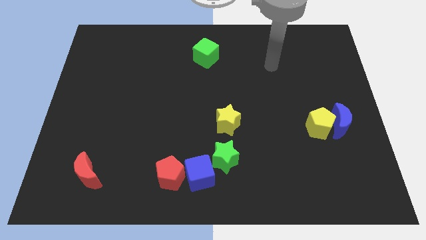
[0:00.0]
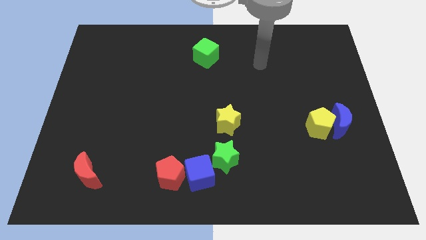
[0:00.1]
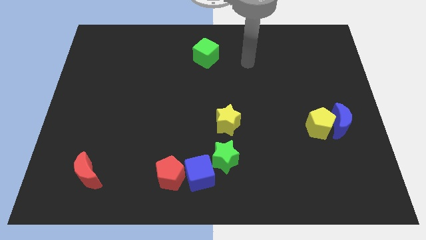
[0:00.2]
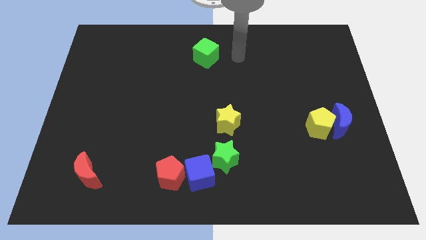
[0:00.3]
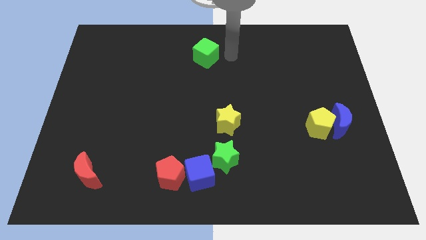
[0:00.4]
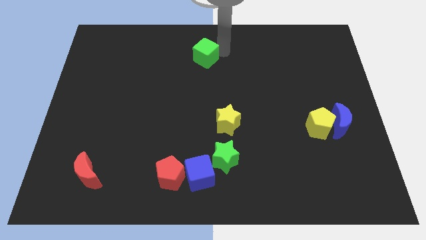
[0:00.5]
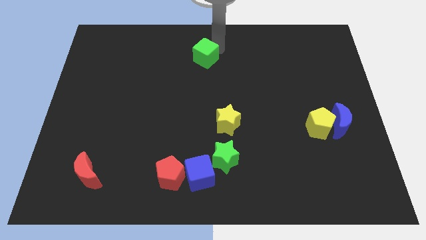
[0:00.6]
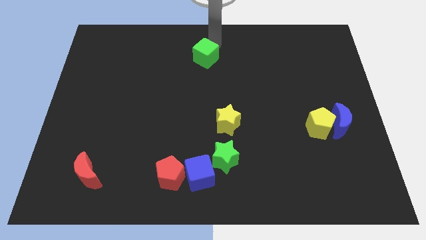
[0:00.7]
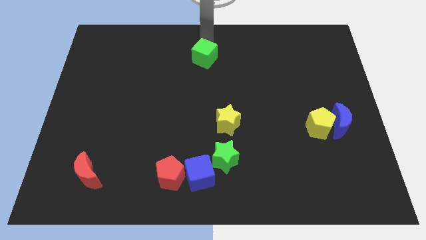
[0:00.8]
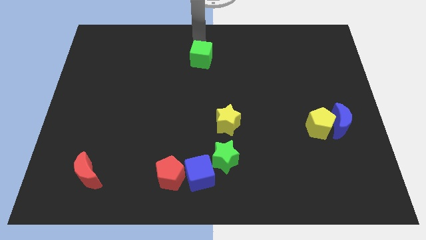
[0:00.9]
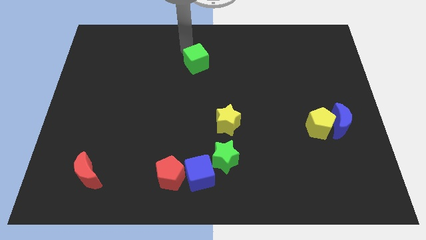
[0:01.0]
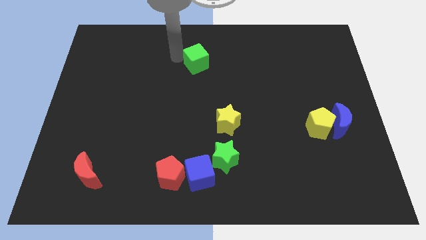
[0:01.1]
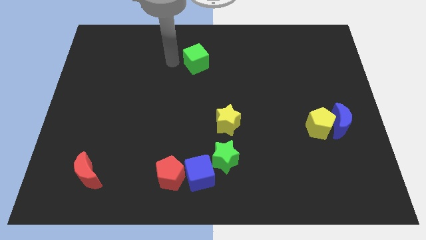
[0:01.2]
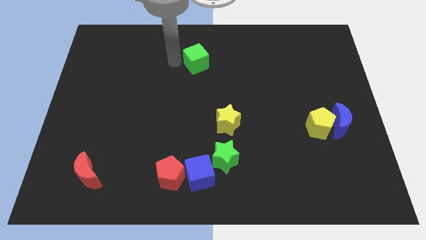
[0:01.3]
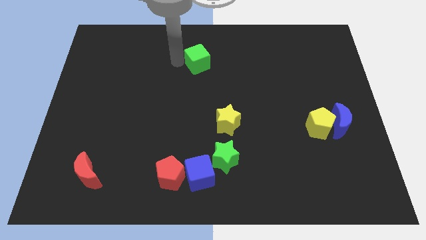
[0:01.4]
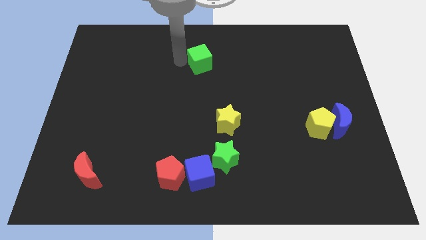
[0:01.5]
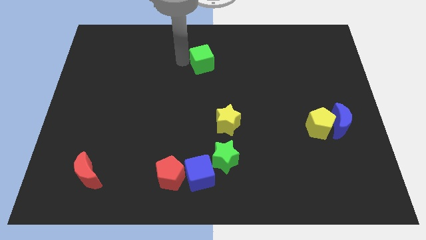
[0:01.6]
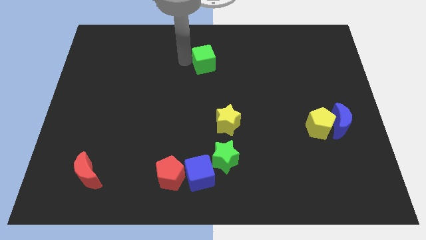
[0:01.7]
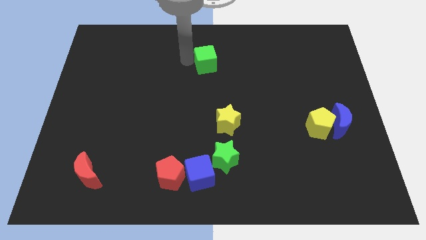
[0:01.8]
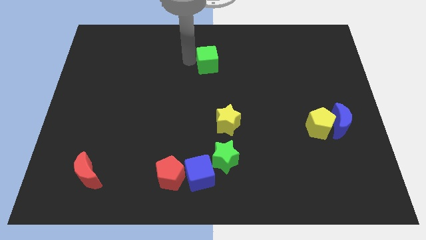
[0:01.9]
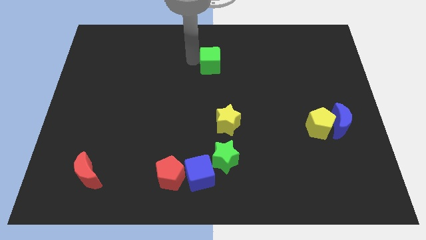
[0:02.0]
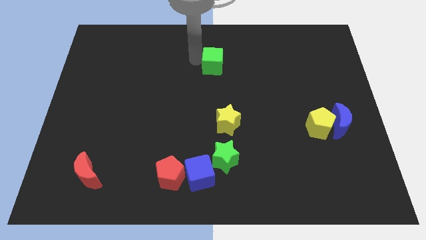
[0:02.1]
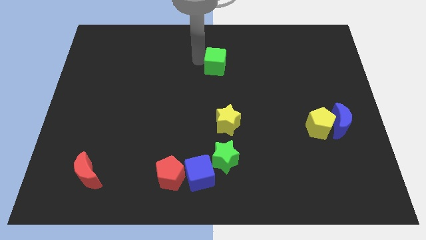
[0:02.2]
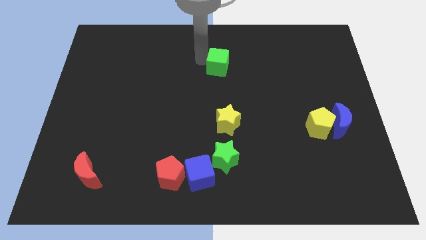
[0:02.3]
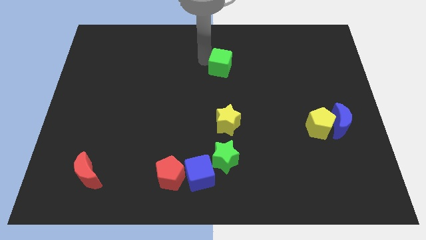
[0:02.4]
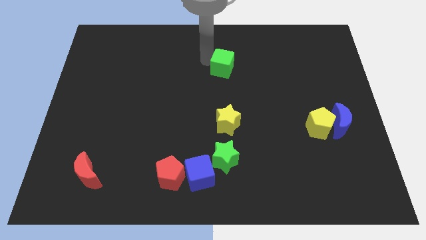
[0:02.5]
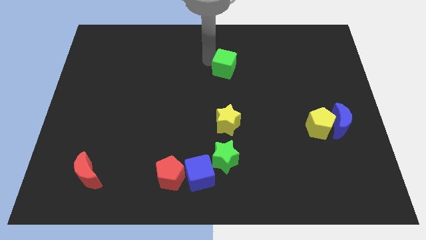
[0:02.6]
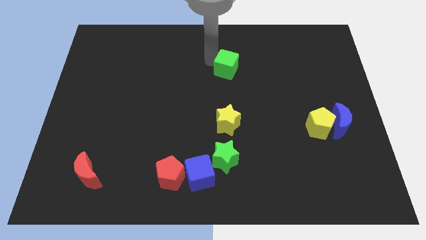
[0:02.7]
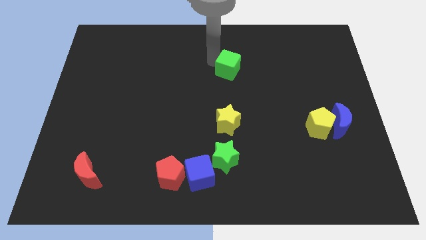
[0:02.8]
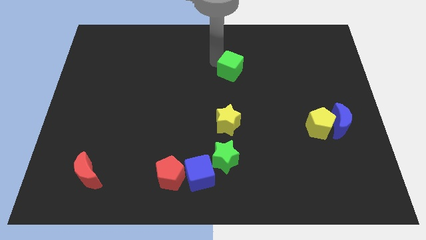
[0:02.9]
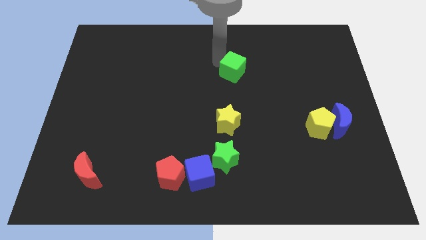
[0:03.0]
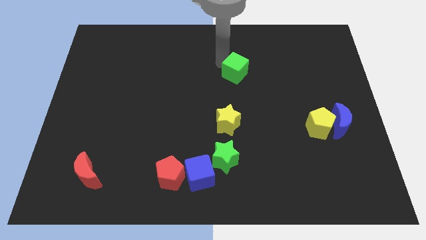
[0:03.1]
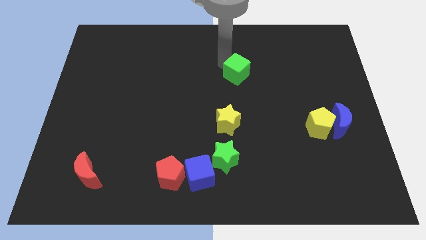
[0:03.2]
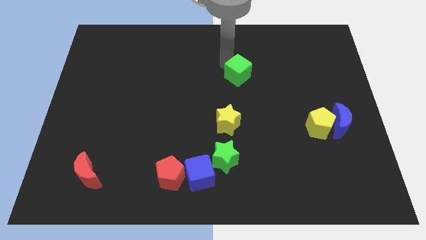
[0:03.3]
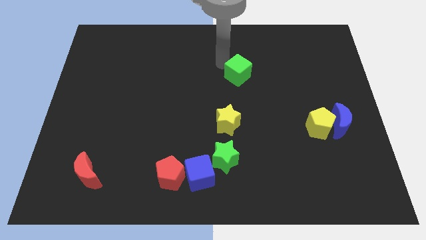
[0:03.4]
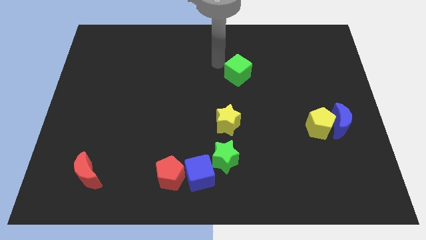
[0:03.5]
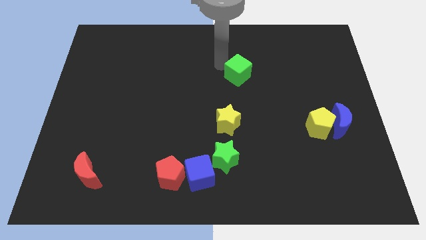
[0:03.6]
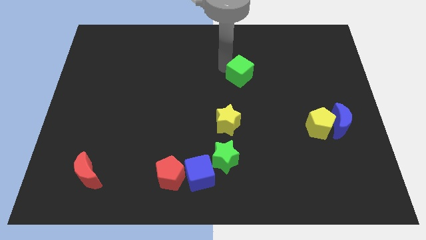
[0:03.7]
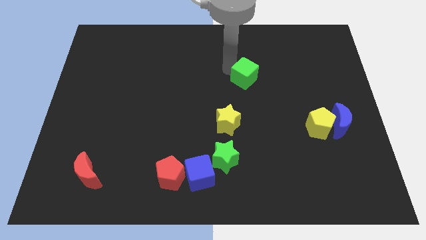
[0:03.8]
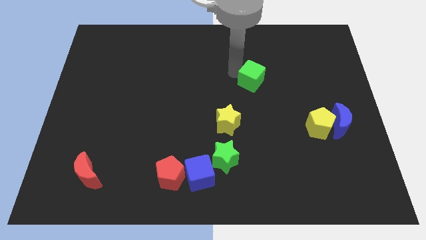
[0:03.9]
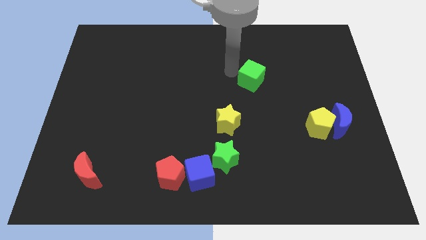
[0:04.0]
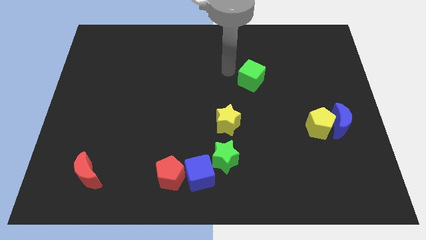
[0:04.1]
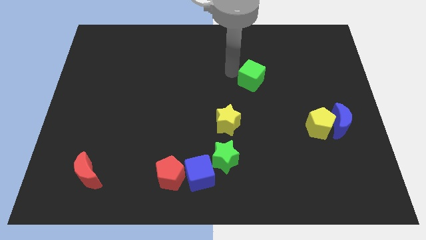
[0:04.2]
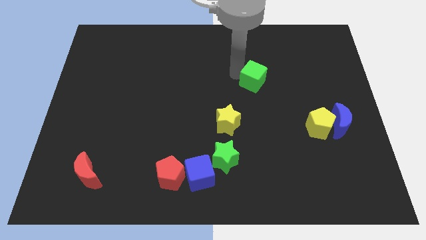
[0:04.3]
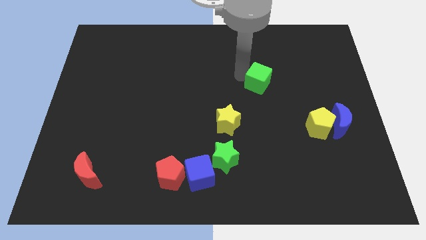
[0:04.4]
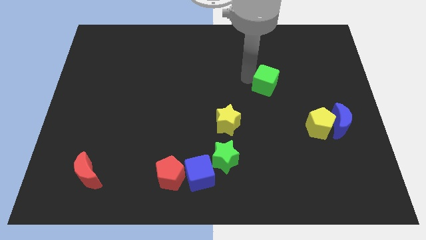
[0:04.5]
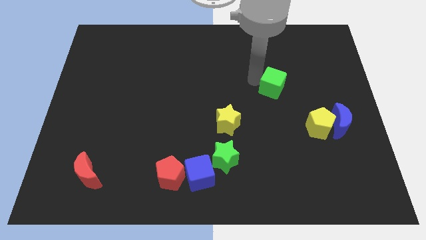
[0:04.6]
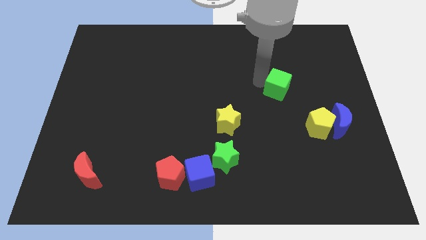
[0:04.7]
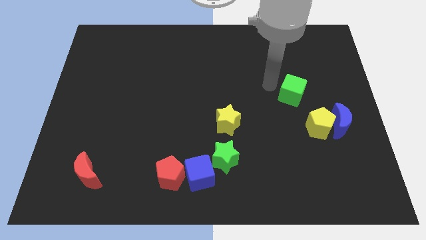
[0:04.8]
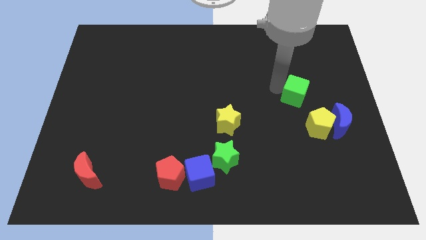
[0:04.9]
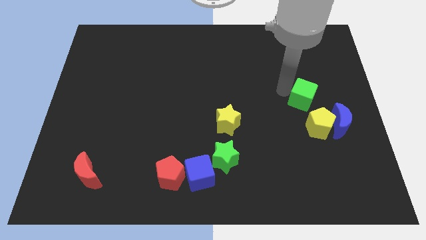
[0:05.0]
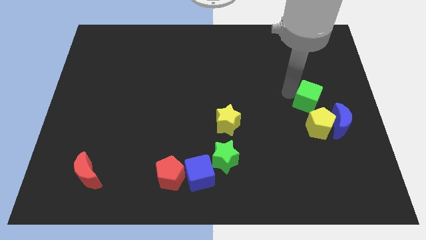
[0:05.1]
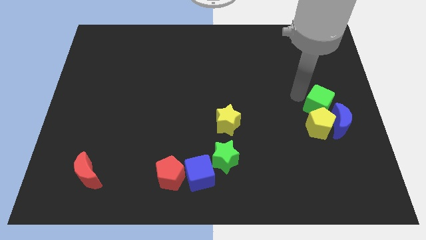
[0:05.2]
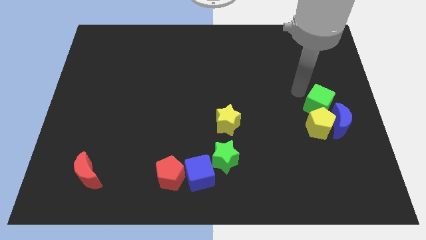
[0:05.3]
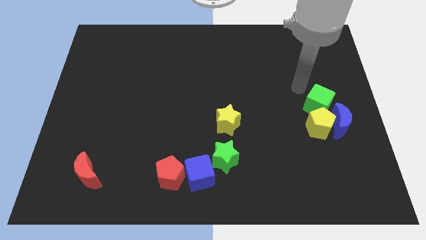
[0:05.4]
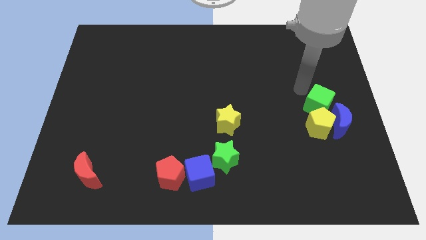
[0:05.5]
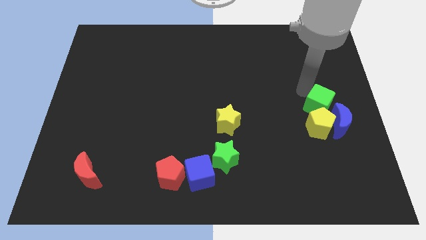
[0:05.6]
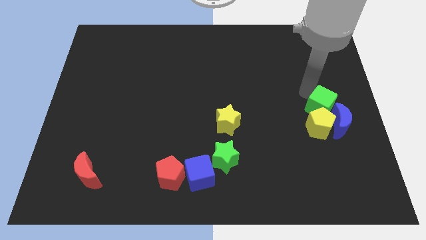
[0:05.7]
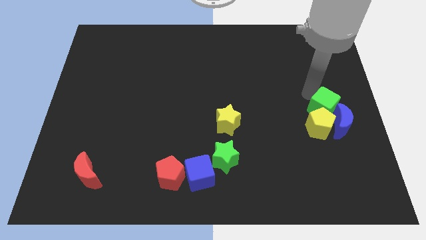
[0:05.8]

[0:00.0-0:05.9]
put the green cube towards the blue moon
